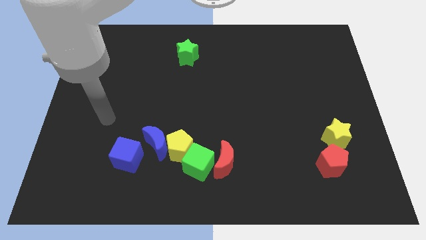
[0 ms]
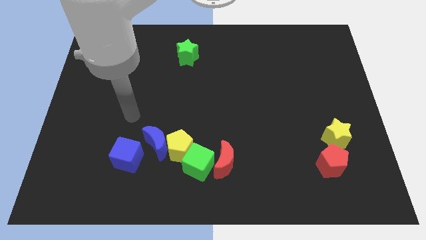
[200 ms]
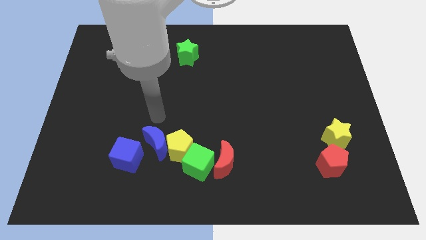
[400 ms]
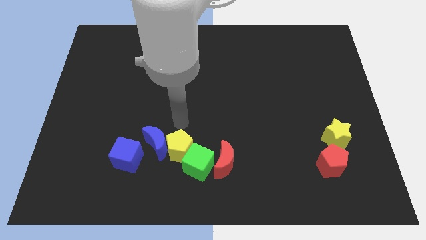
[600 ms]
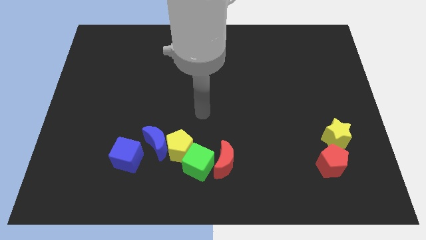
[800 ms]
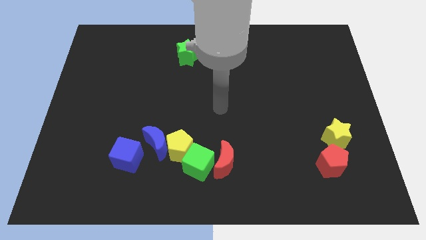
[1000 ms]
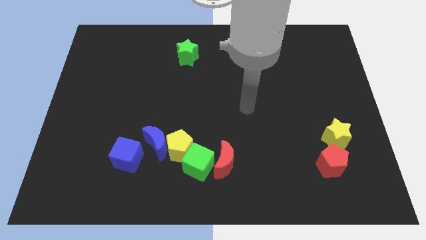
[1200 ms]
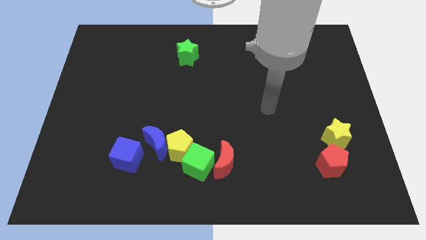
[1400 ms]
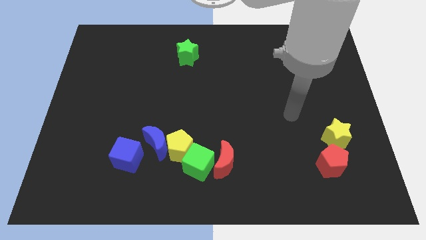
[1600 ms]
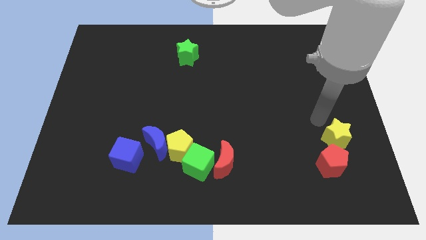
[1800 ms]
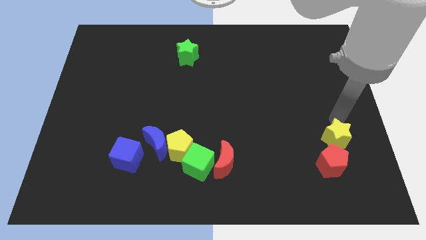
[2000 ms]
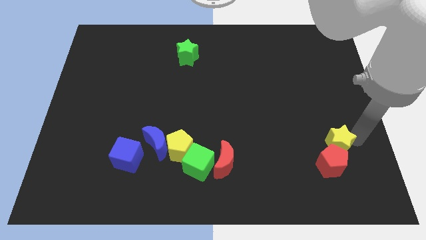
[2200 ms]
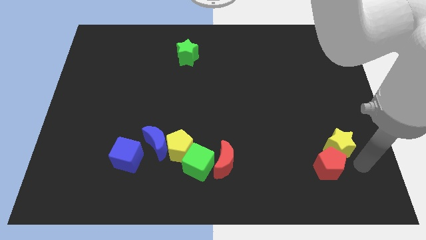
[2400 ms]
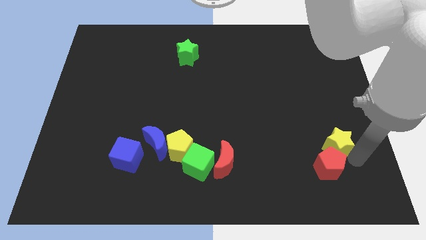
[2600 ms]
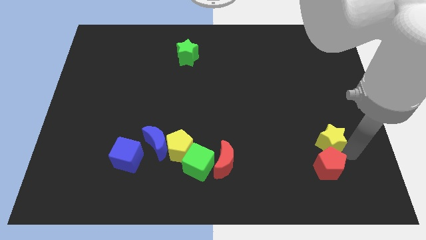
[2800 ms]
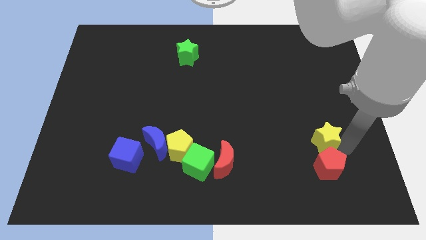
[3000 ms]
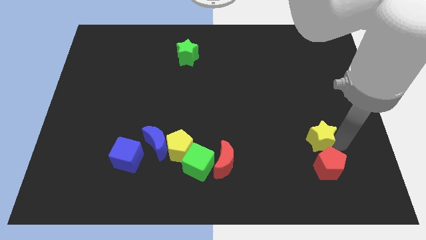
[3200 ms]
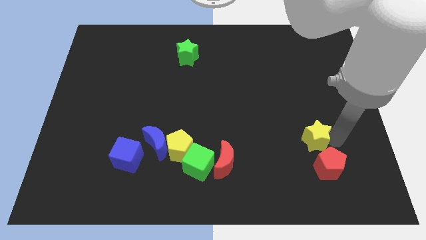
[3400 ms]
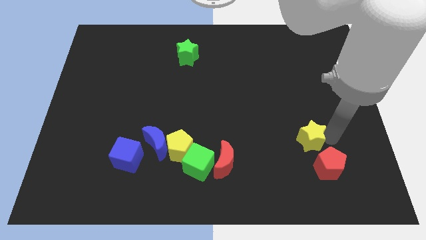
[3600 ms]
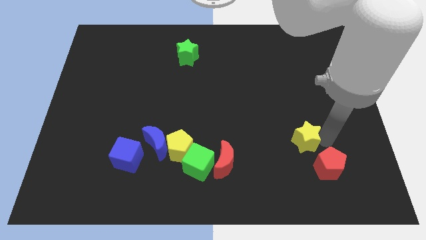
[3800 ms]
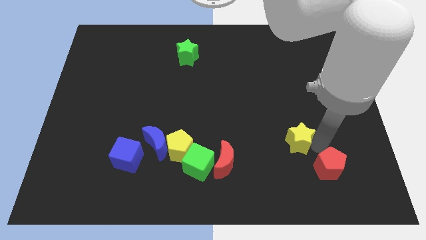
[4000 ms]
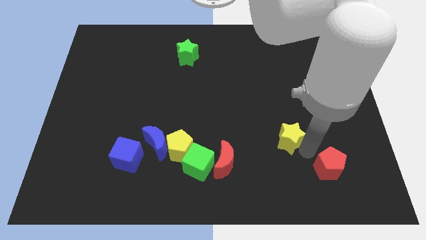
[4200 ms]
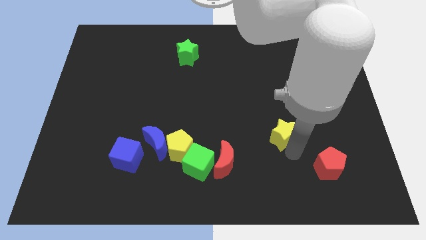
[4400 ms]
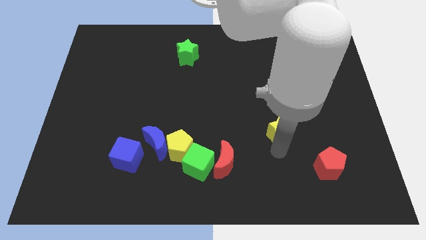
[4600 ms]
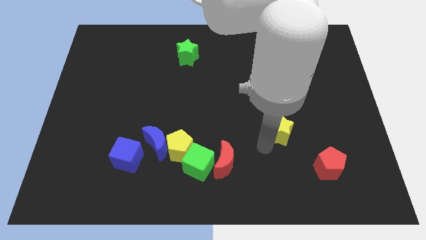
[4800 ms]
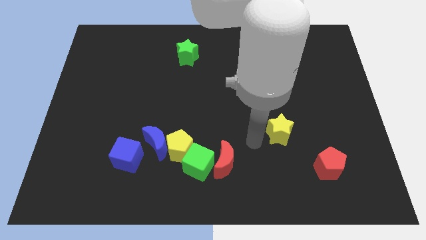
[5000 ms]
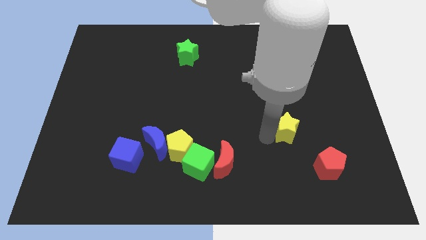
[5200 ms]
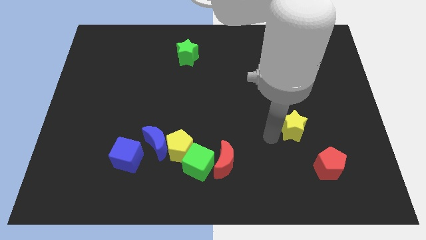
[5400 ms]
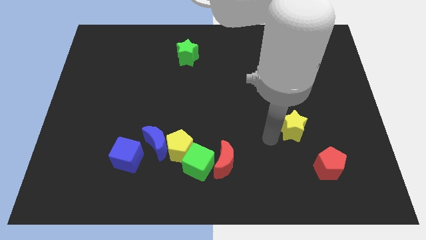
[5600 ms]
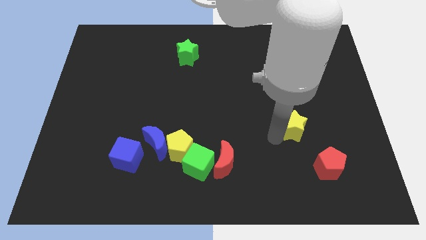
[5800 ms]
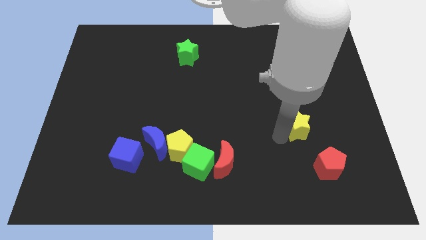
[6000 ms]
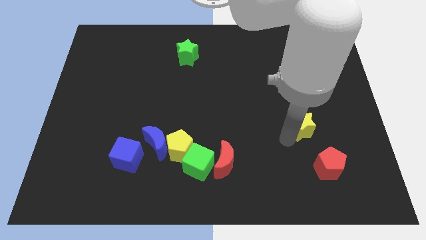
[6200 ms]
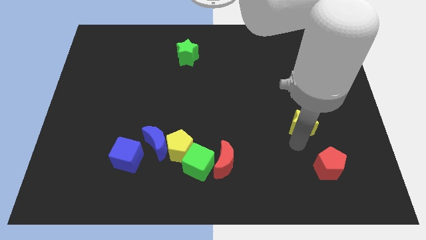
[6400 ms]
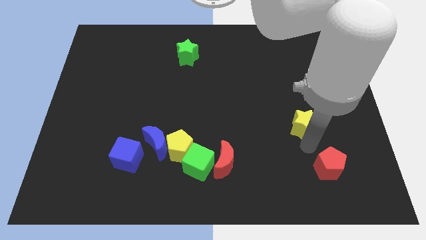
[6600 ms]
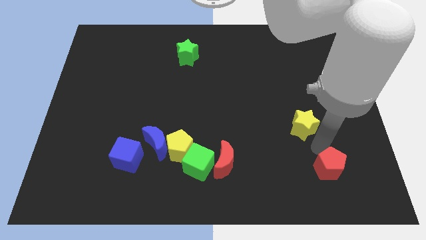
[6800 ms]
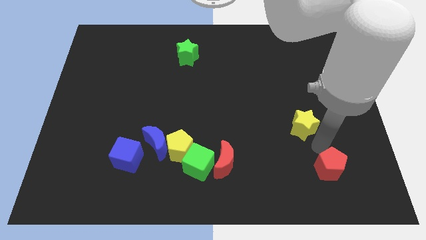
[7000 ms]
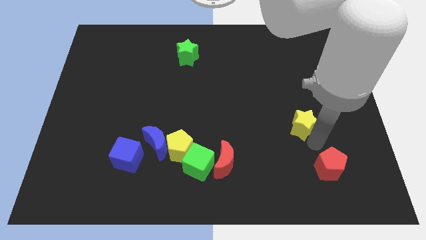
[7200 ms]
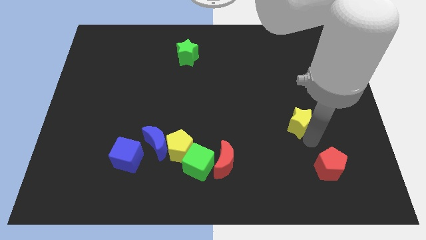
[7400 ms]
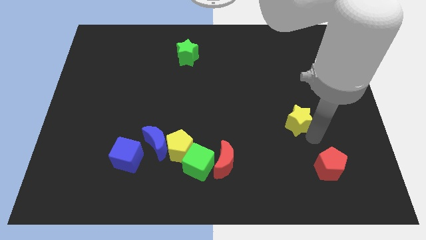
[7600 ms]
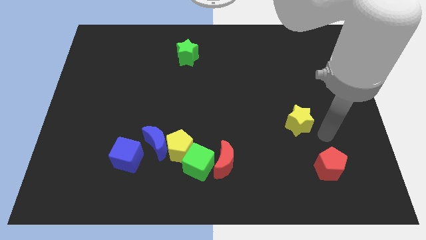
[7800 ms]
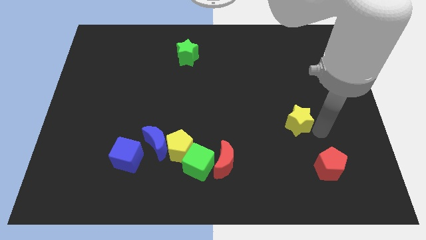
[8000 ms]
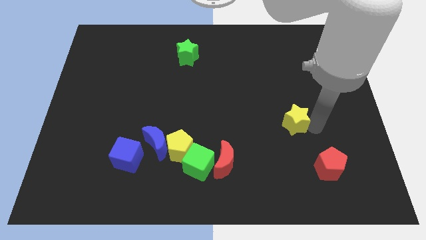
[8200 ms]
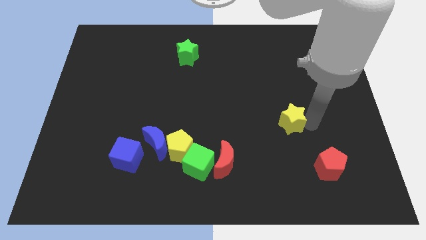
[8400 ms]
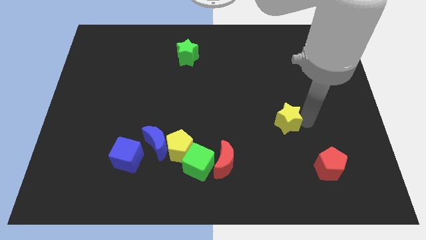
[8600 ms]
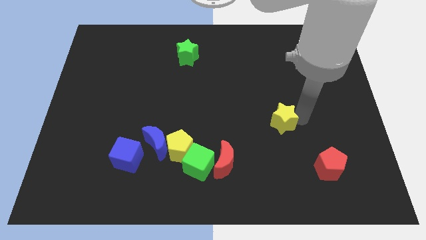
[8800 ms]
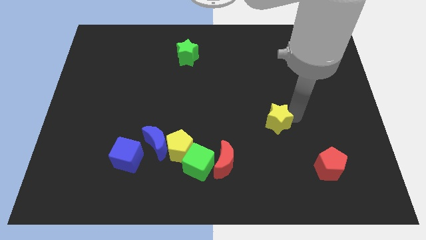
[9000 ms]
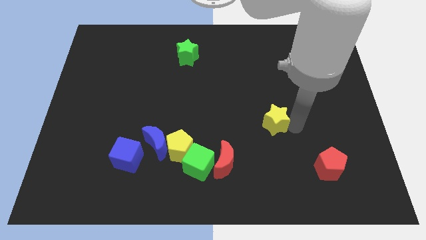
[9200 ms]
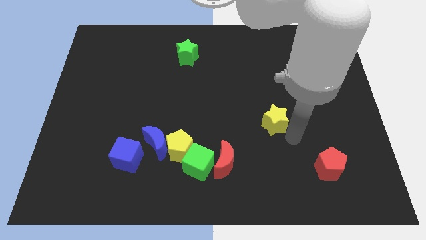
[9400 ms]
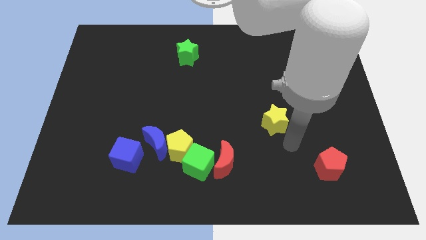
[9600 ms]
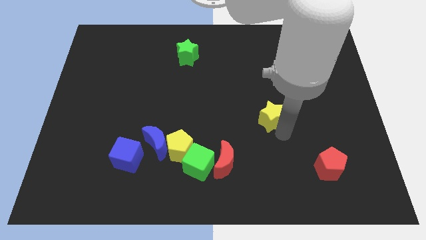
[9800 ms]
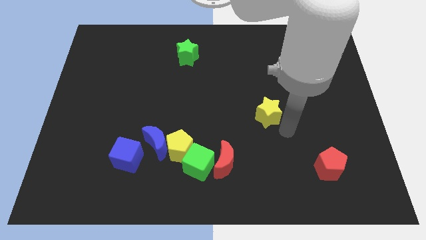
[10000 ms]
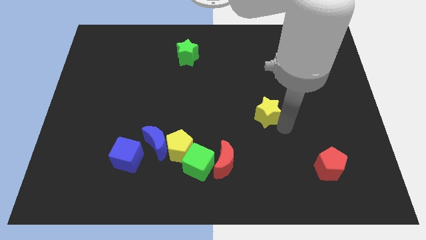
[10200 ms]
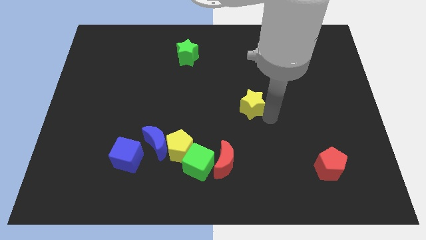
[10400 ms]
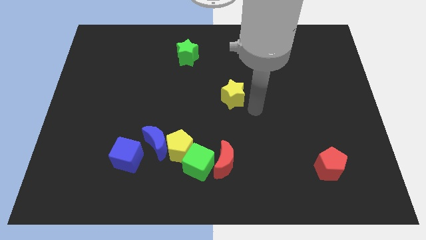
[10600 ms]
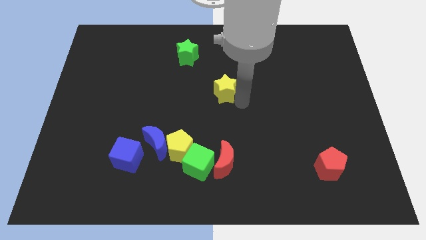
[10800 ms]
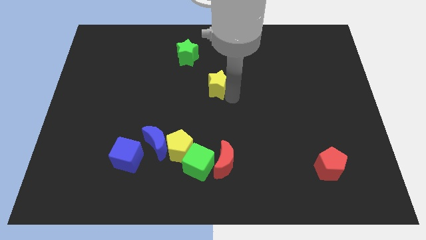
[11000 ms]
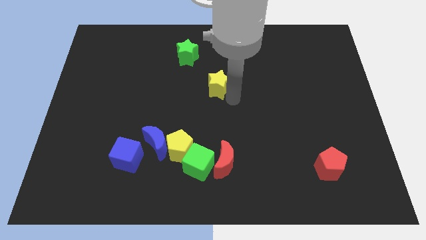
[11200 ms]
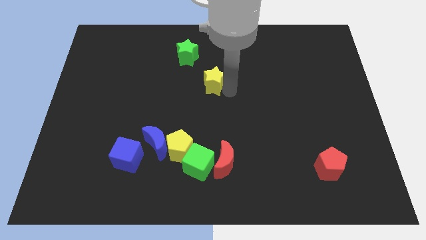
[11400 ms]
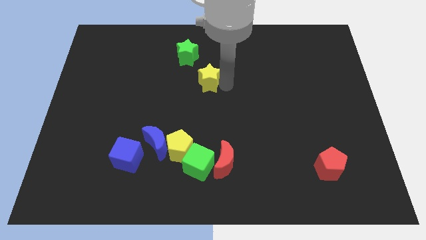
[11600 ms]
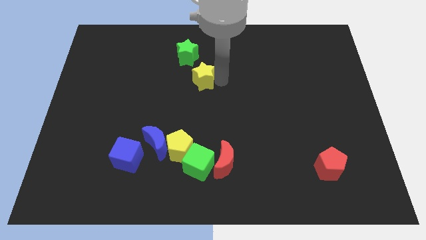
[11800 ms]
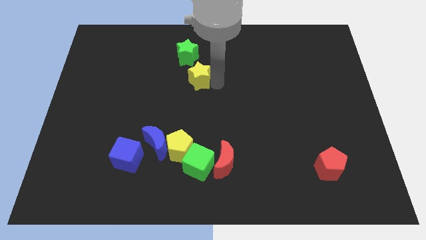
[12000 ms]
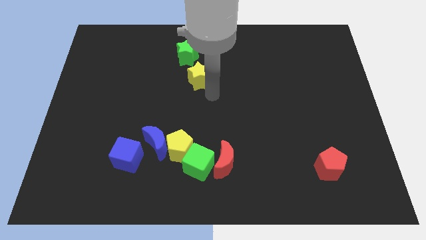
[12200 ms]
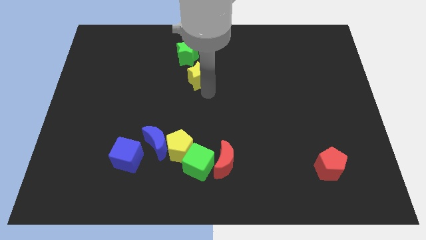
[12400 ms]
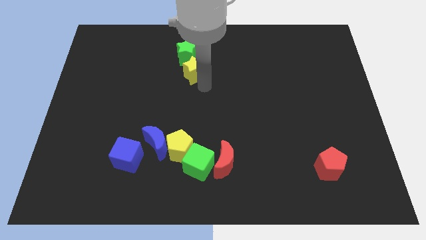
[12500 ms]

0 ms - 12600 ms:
move the yellow star next to the green star

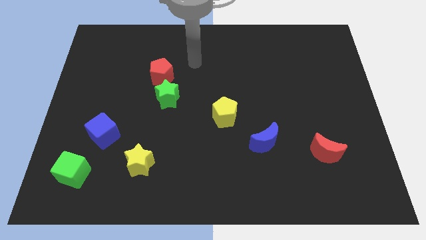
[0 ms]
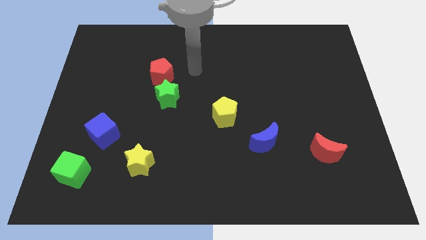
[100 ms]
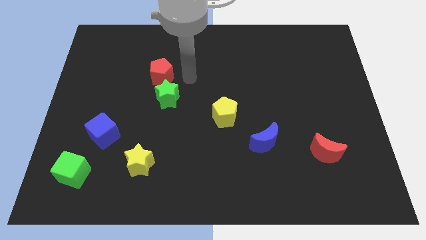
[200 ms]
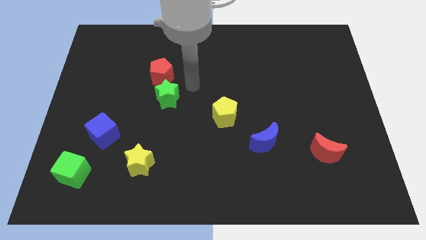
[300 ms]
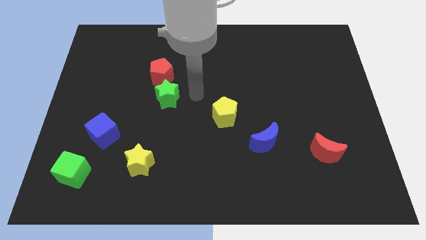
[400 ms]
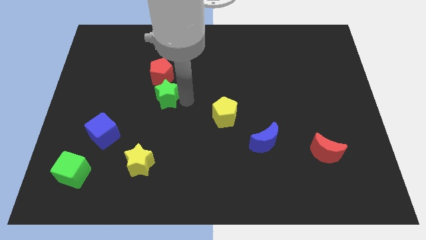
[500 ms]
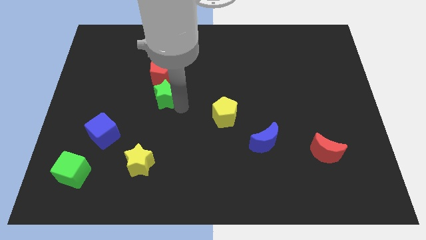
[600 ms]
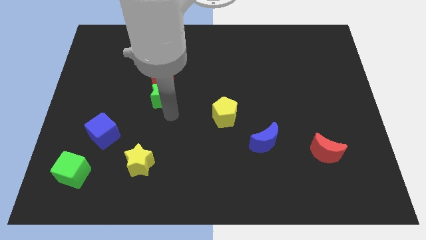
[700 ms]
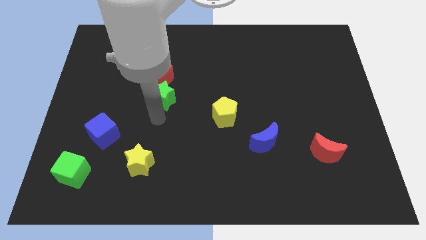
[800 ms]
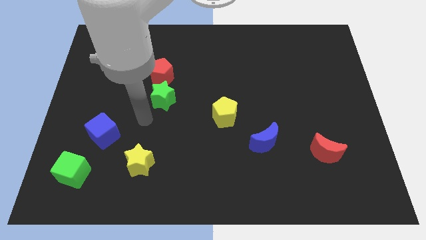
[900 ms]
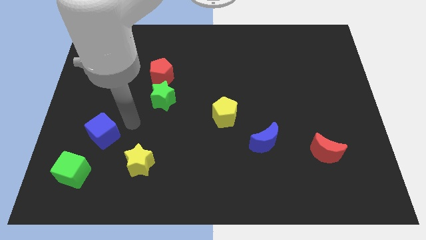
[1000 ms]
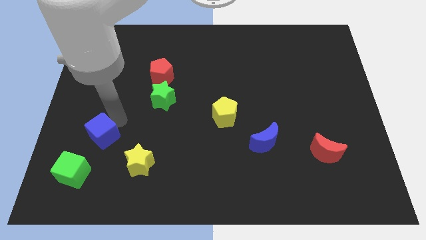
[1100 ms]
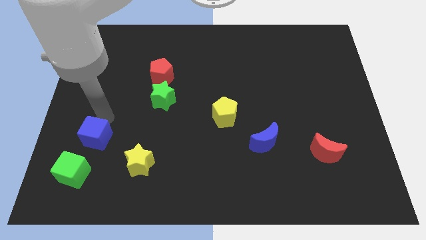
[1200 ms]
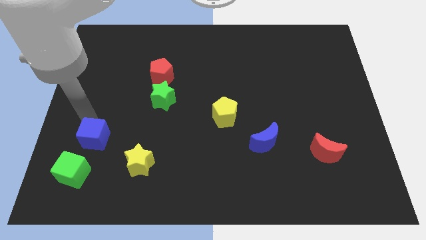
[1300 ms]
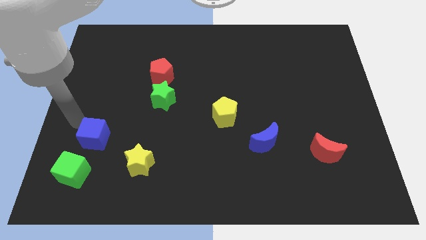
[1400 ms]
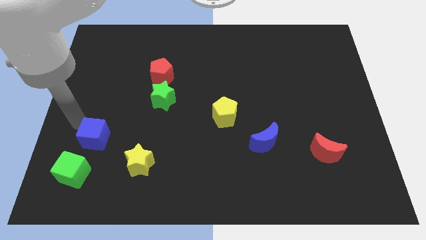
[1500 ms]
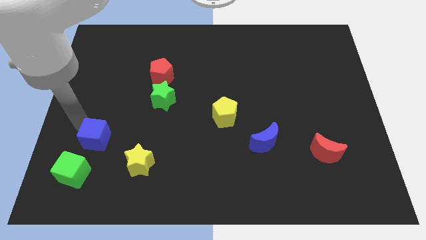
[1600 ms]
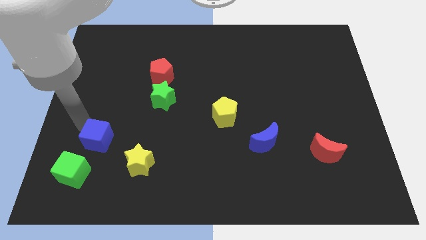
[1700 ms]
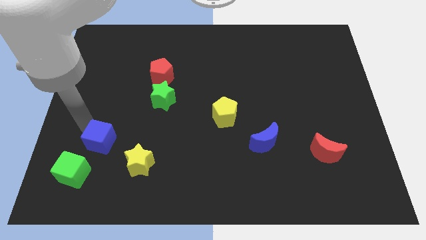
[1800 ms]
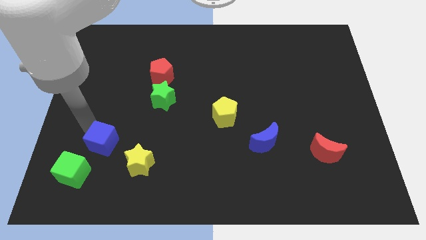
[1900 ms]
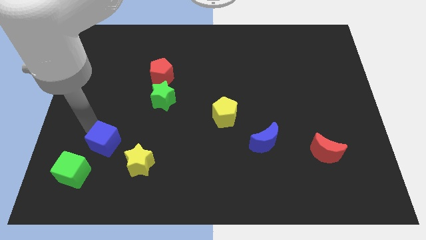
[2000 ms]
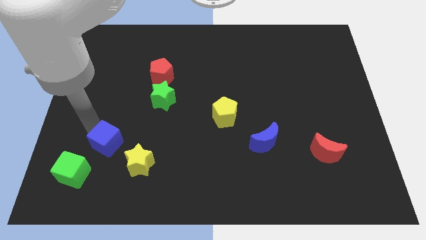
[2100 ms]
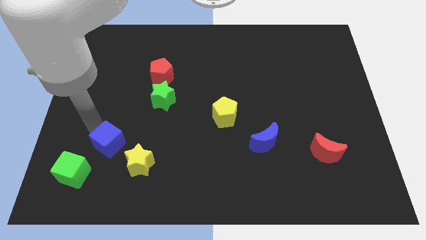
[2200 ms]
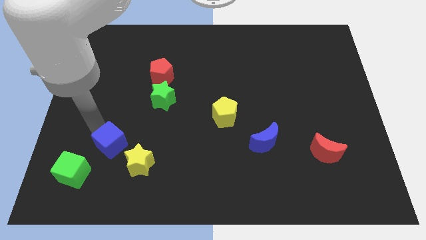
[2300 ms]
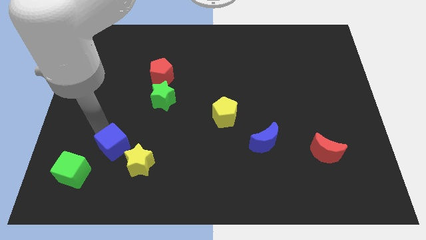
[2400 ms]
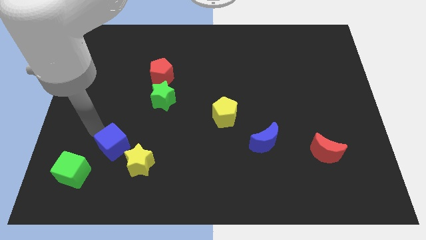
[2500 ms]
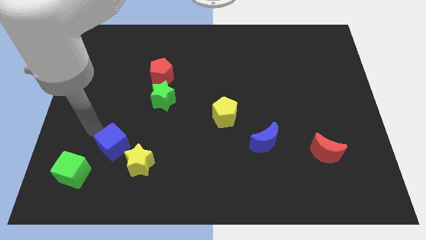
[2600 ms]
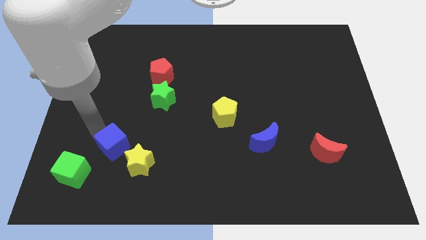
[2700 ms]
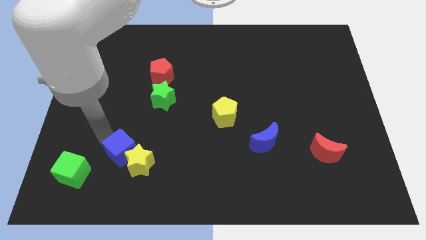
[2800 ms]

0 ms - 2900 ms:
put the blue cube towards the yellow star
